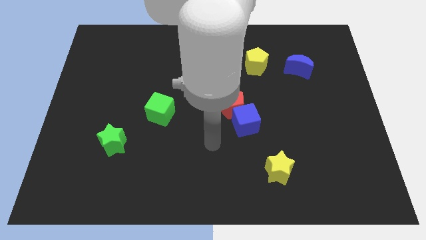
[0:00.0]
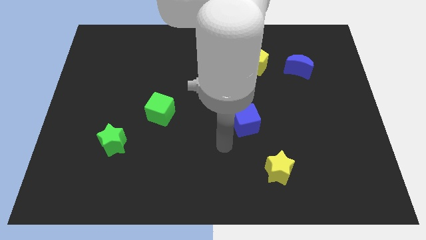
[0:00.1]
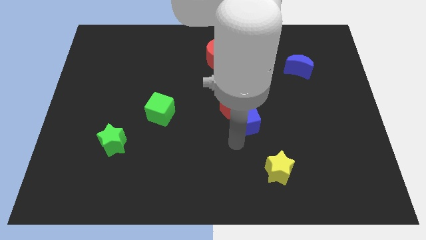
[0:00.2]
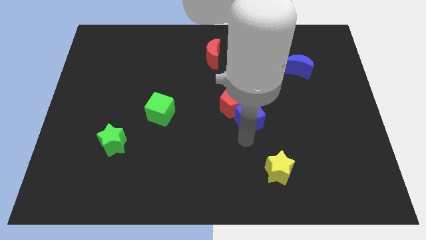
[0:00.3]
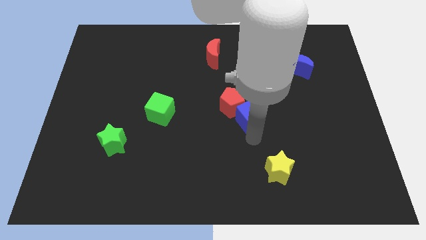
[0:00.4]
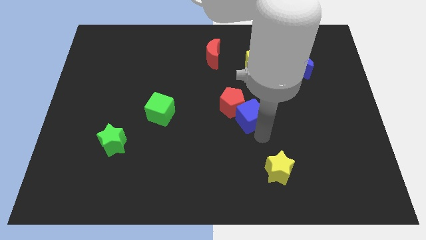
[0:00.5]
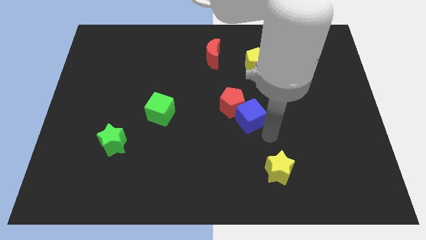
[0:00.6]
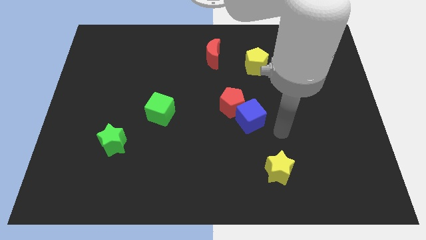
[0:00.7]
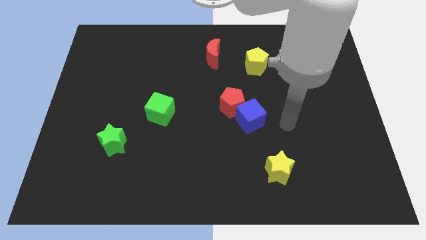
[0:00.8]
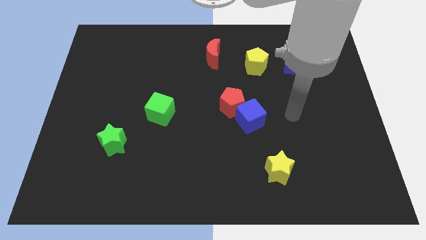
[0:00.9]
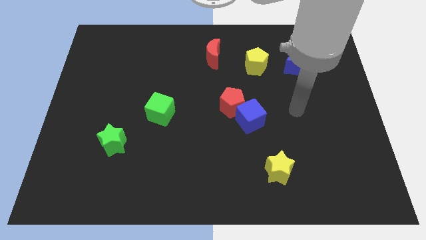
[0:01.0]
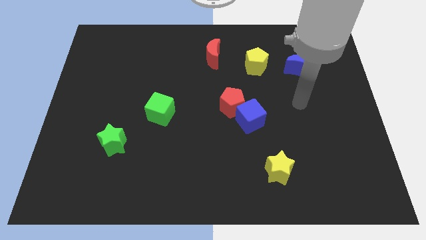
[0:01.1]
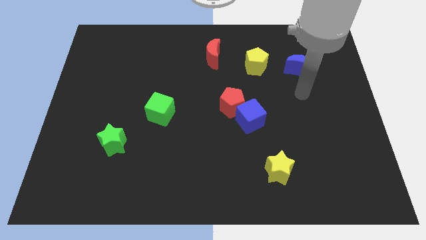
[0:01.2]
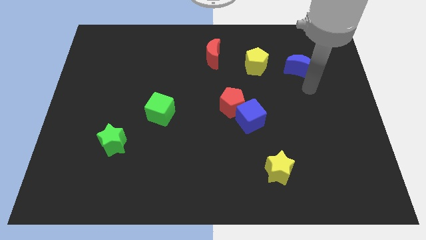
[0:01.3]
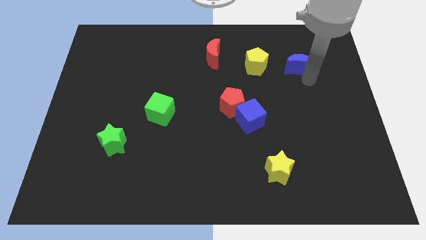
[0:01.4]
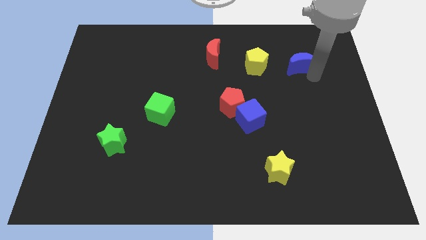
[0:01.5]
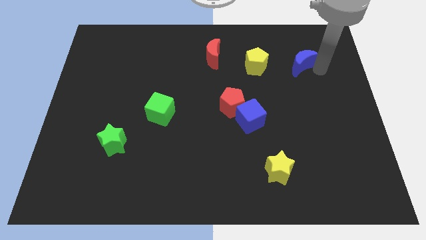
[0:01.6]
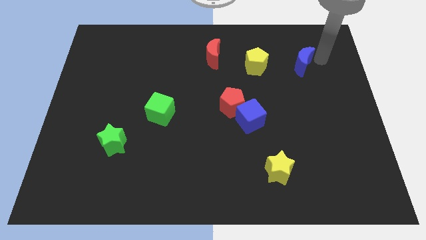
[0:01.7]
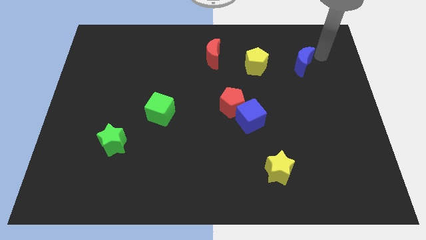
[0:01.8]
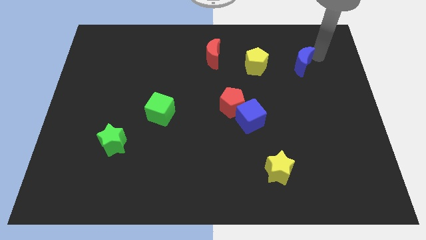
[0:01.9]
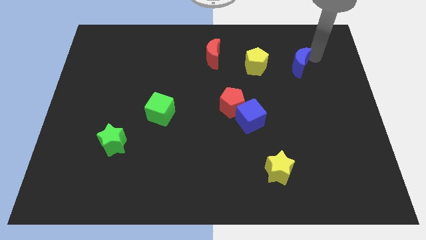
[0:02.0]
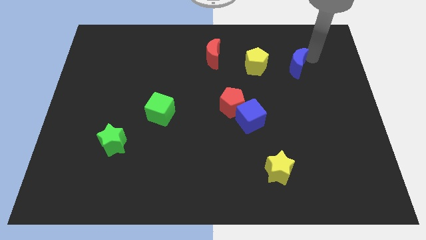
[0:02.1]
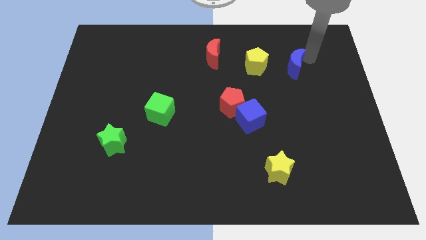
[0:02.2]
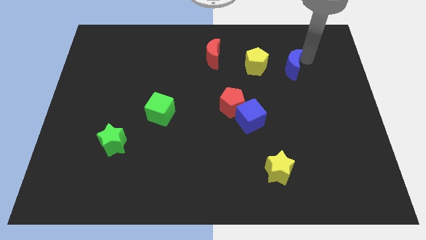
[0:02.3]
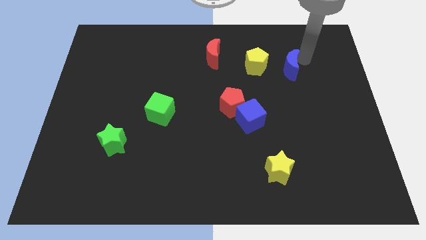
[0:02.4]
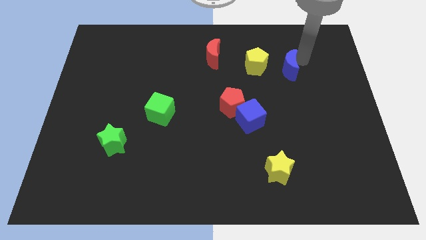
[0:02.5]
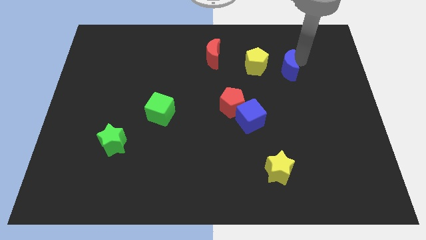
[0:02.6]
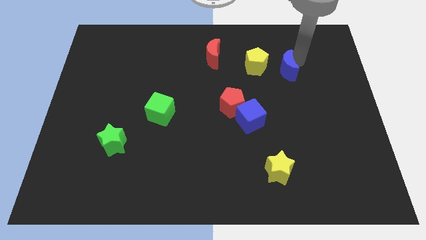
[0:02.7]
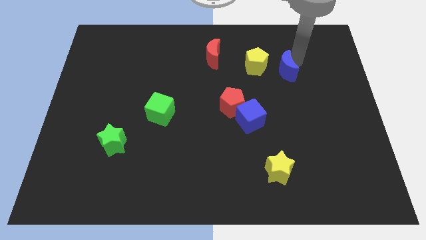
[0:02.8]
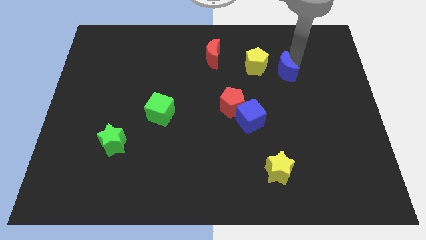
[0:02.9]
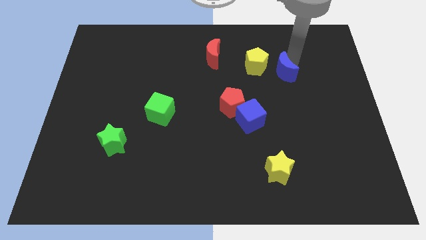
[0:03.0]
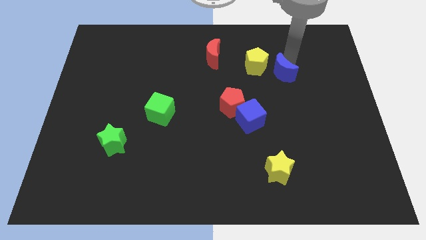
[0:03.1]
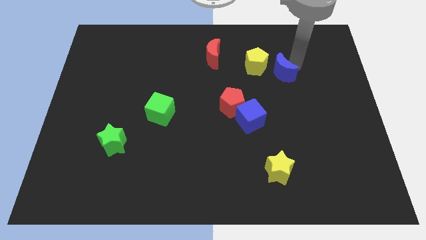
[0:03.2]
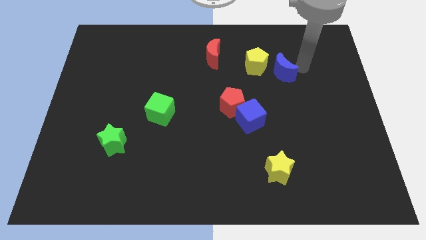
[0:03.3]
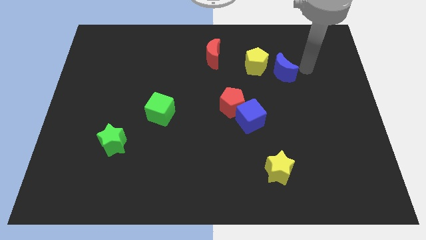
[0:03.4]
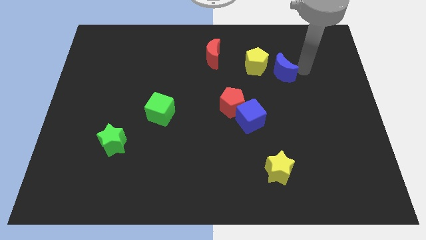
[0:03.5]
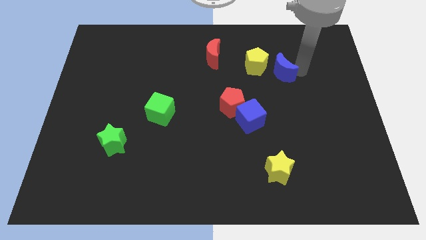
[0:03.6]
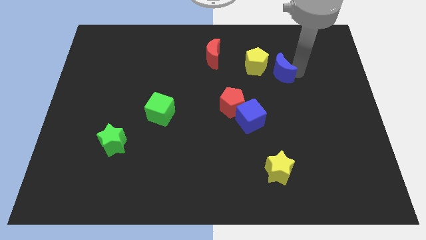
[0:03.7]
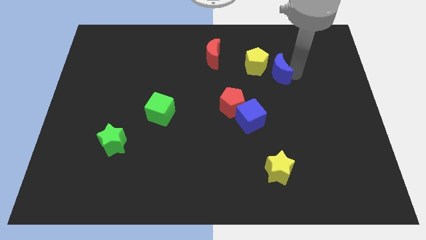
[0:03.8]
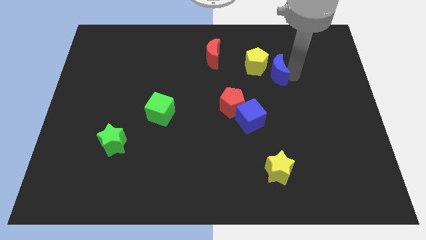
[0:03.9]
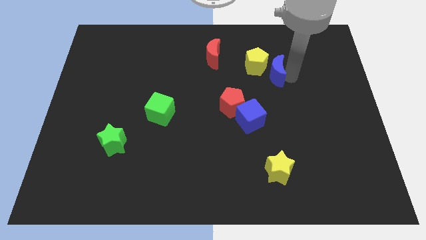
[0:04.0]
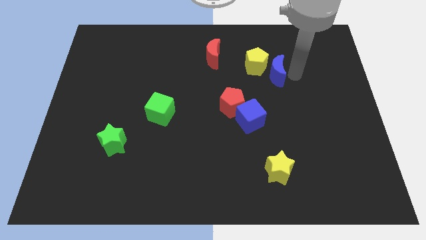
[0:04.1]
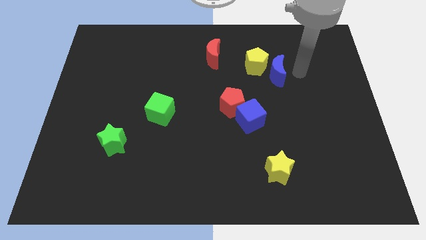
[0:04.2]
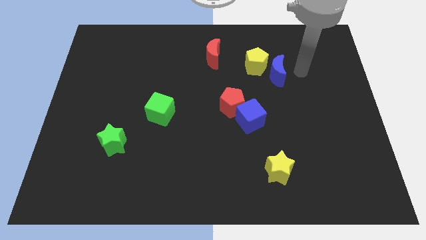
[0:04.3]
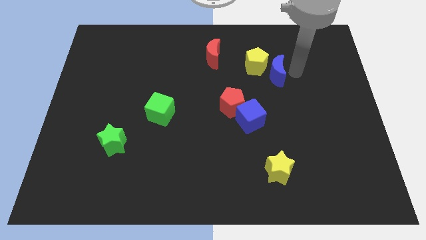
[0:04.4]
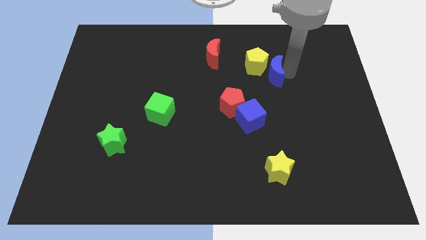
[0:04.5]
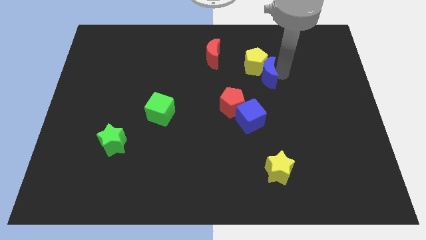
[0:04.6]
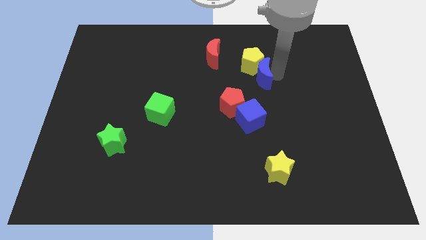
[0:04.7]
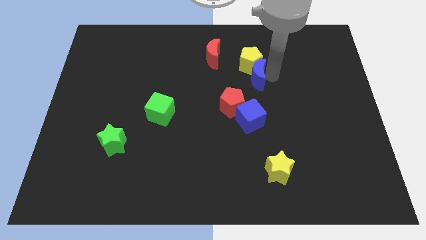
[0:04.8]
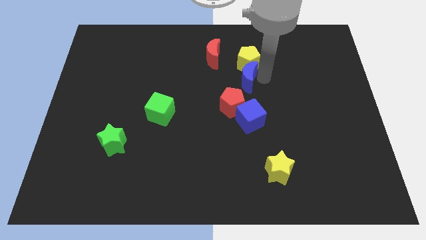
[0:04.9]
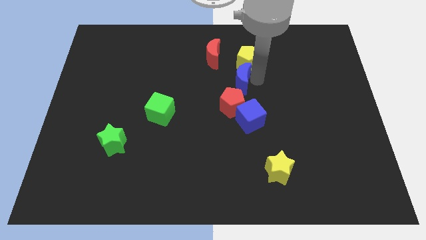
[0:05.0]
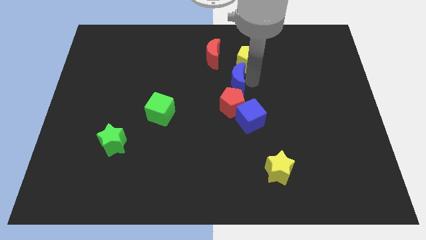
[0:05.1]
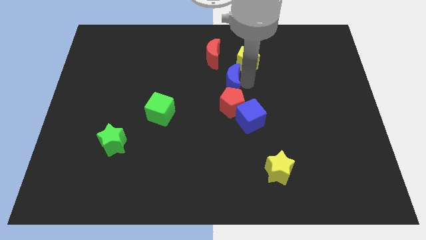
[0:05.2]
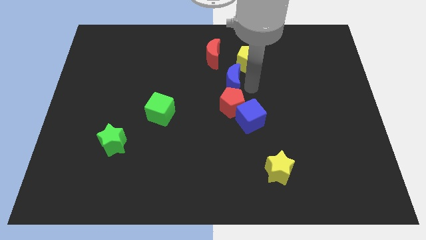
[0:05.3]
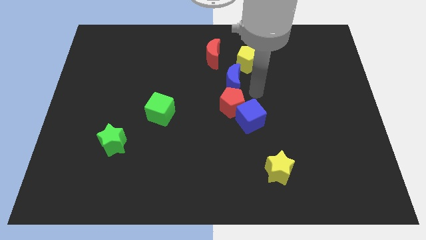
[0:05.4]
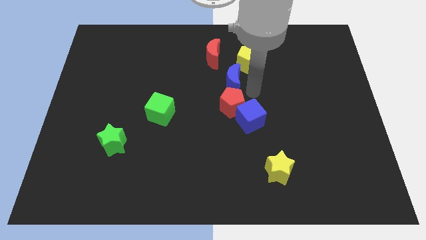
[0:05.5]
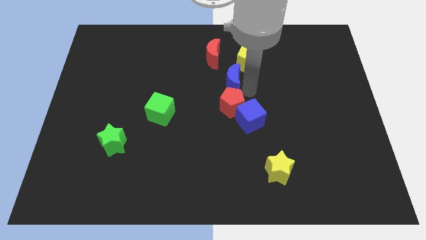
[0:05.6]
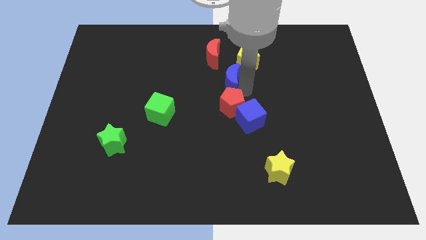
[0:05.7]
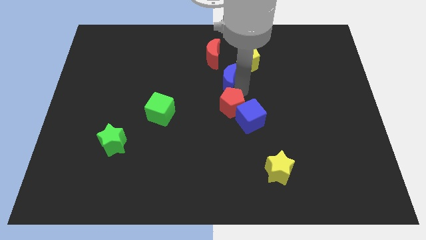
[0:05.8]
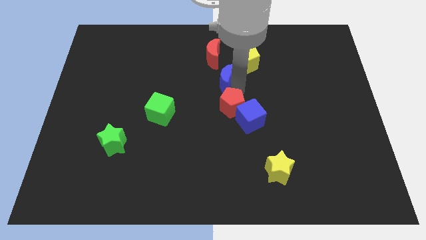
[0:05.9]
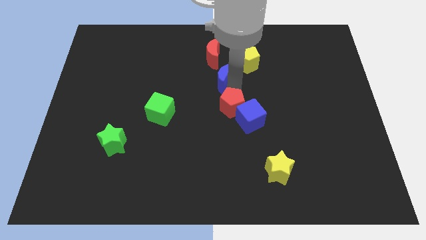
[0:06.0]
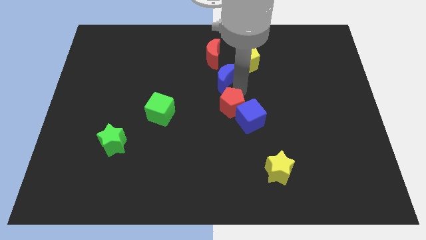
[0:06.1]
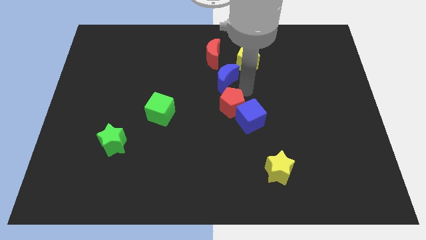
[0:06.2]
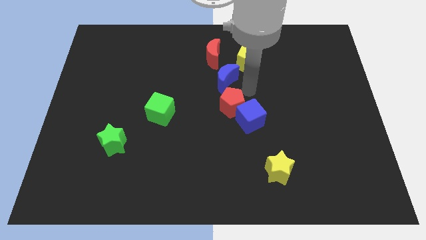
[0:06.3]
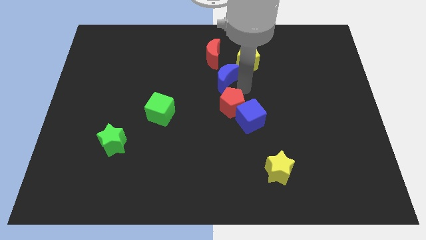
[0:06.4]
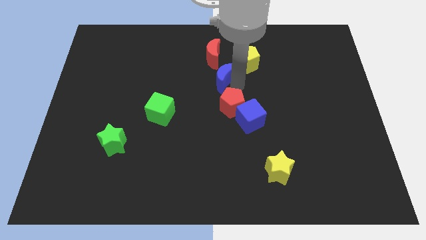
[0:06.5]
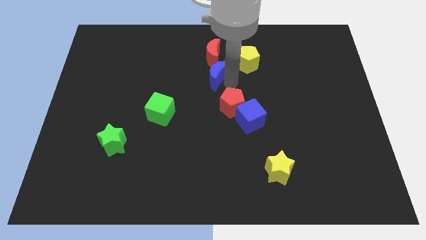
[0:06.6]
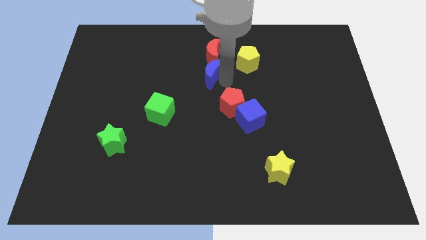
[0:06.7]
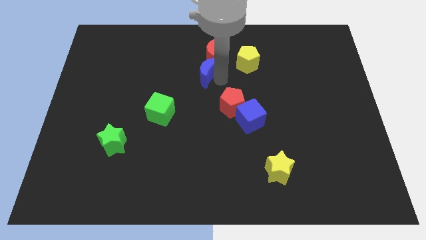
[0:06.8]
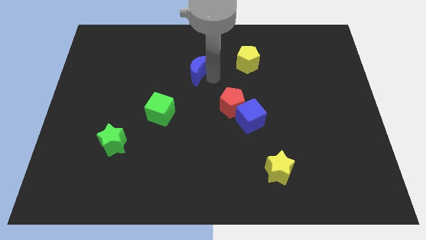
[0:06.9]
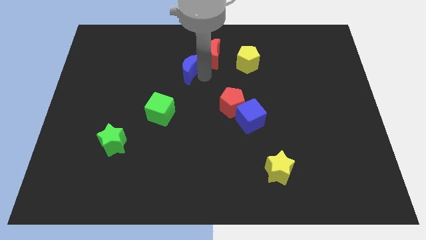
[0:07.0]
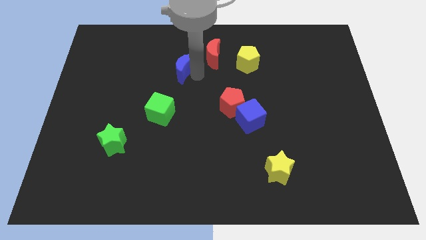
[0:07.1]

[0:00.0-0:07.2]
put the blue moon just left of the red moon
